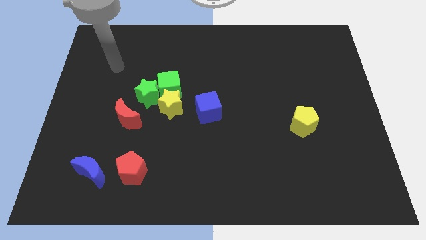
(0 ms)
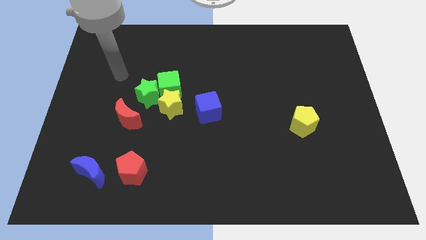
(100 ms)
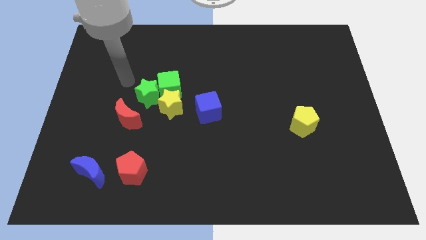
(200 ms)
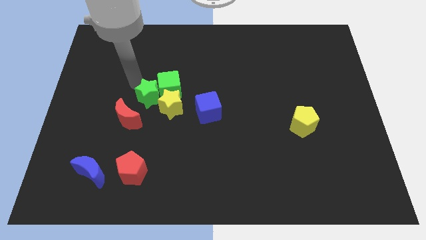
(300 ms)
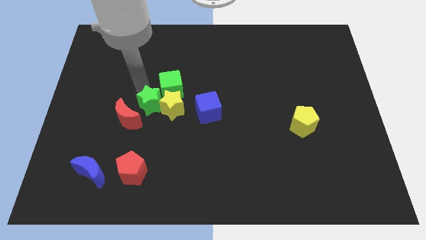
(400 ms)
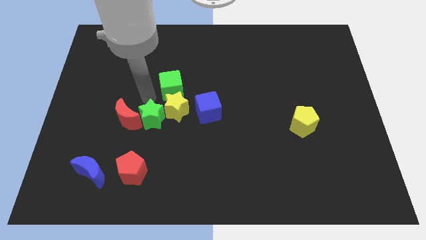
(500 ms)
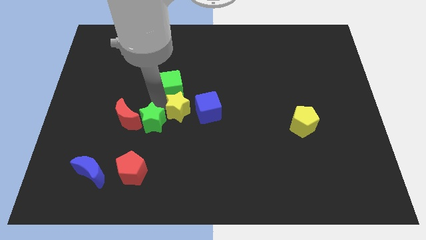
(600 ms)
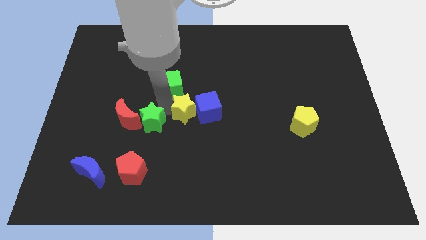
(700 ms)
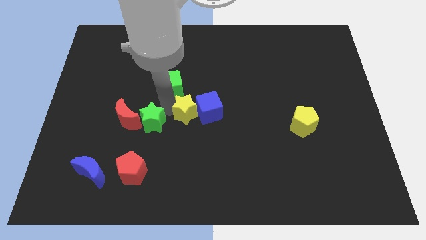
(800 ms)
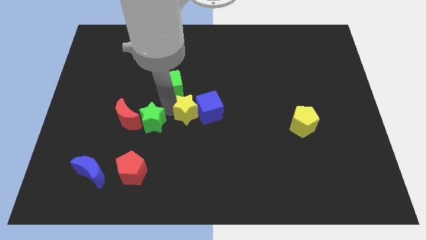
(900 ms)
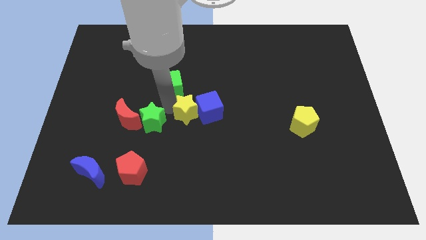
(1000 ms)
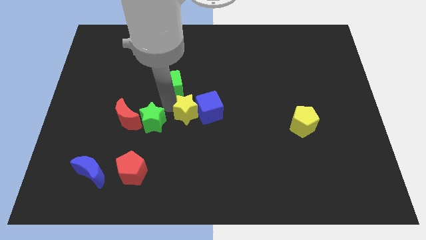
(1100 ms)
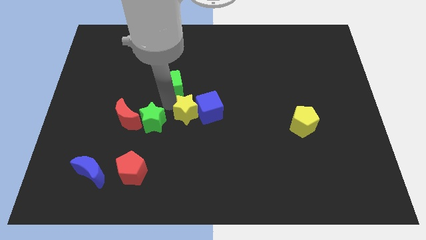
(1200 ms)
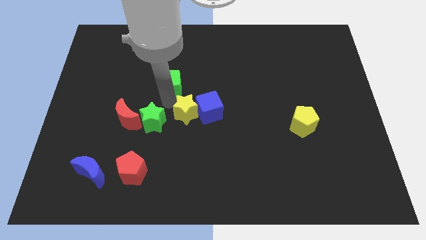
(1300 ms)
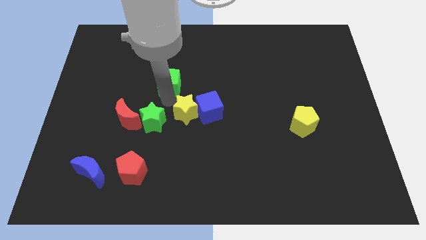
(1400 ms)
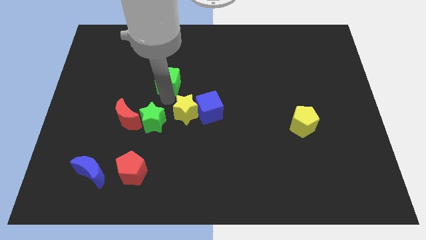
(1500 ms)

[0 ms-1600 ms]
move the green cube away from the green star and yellow star

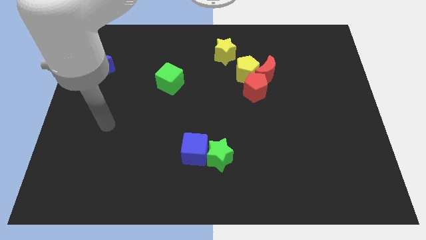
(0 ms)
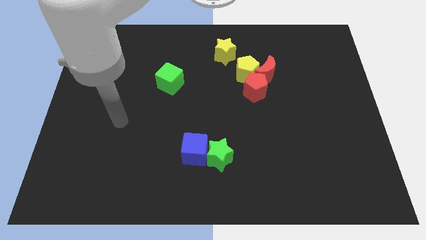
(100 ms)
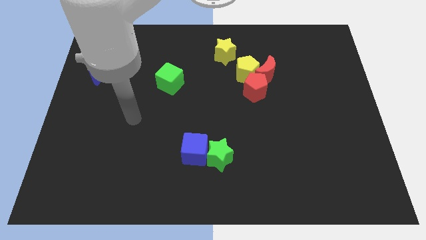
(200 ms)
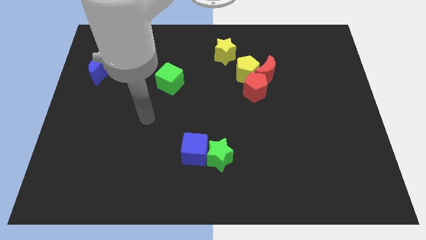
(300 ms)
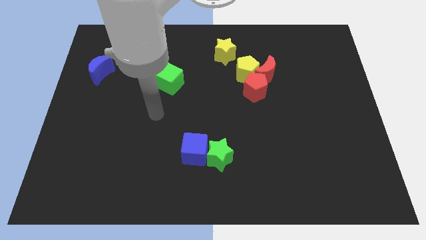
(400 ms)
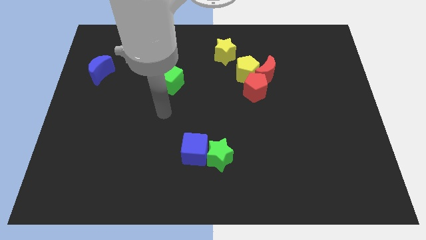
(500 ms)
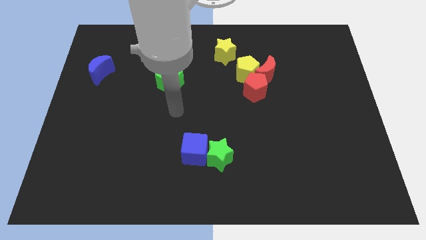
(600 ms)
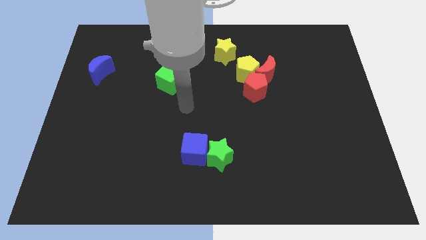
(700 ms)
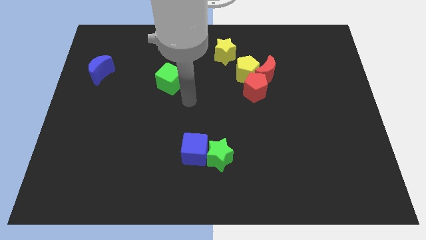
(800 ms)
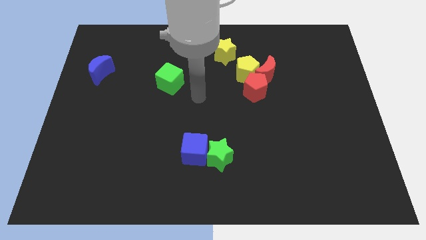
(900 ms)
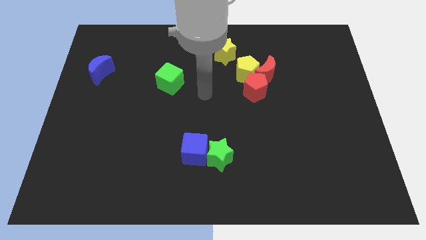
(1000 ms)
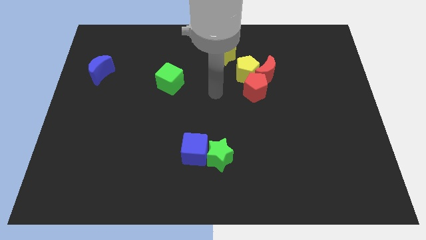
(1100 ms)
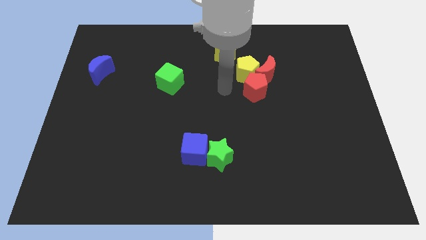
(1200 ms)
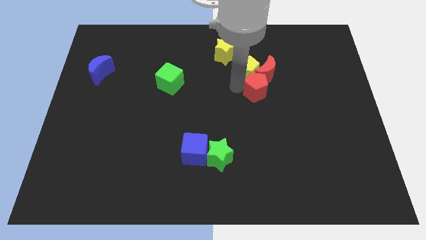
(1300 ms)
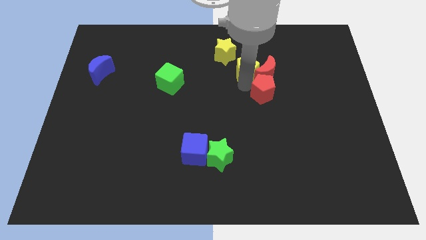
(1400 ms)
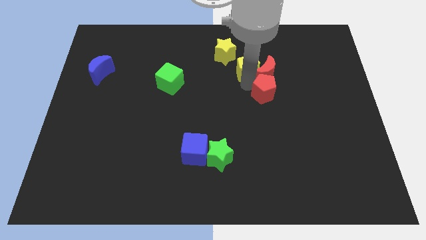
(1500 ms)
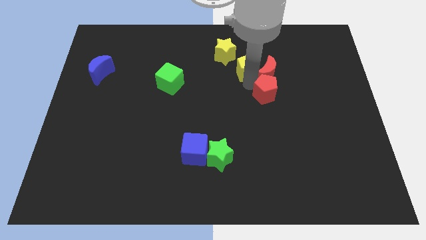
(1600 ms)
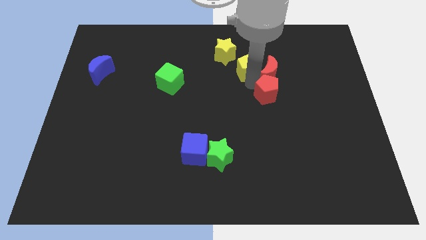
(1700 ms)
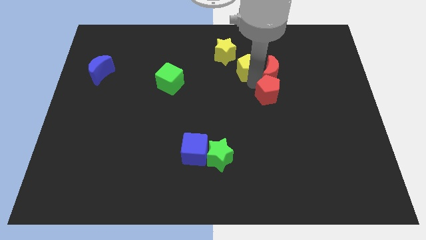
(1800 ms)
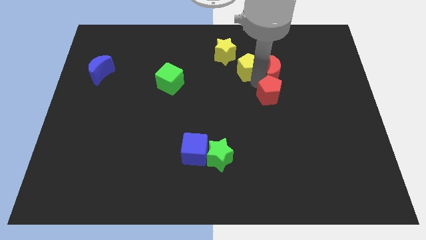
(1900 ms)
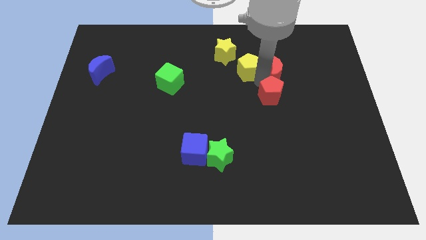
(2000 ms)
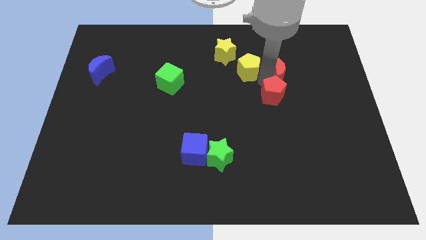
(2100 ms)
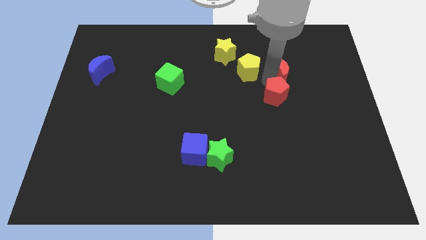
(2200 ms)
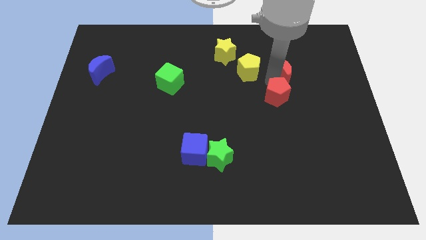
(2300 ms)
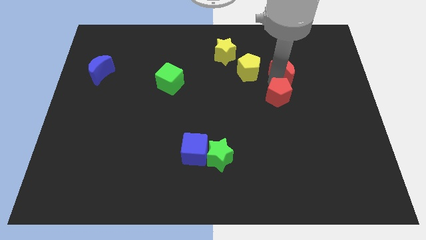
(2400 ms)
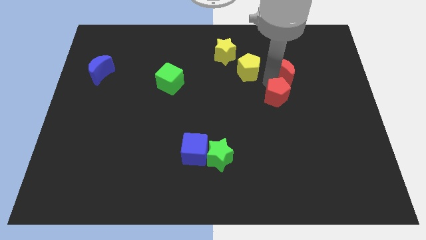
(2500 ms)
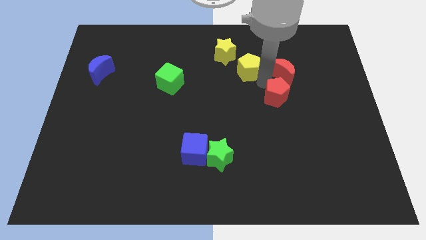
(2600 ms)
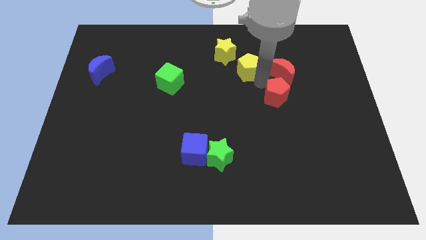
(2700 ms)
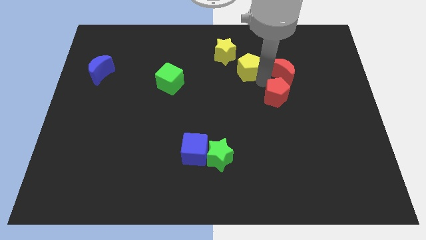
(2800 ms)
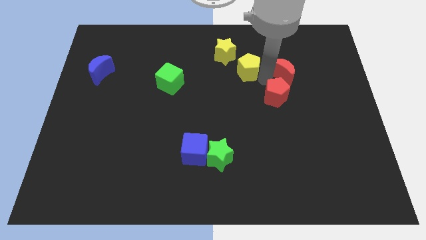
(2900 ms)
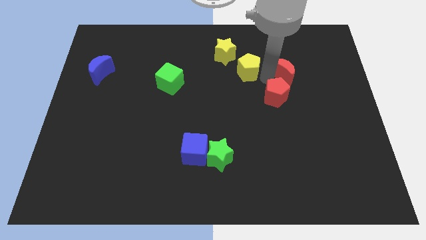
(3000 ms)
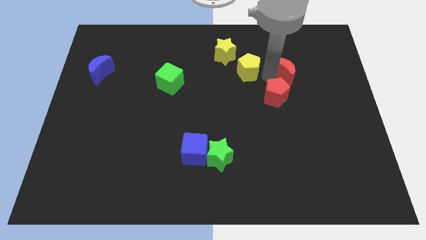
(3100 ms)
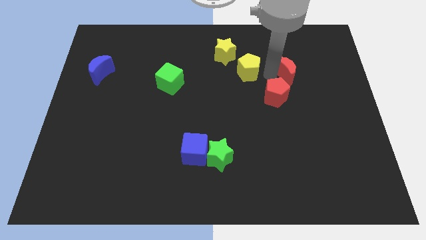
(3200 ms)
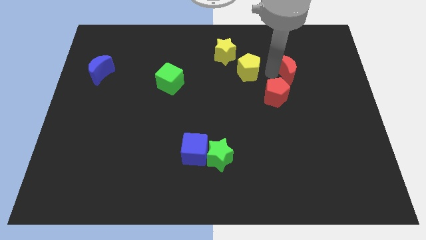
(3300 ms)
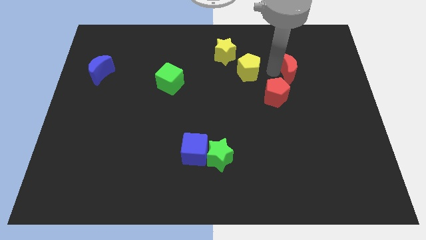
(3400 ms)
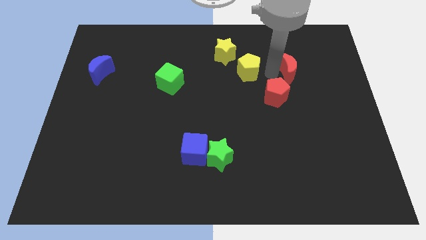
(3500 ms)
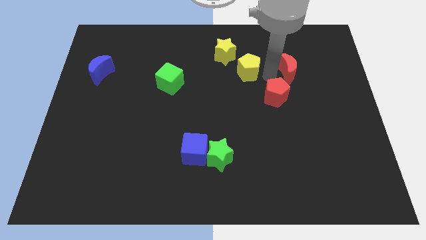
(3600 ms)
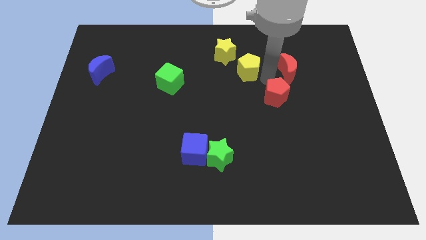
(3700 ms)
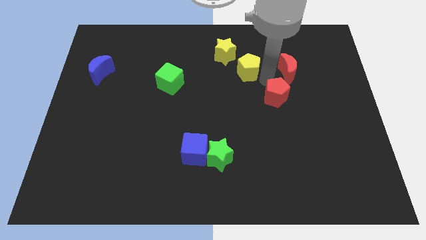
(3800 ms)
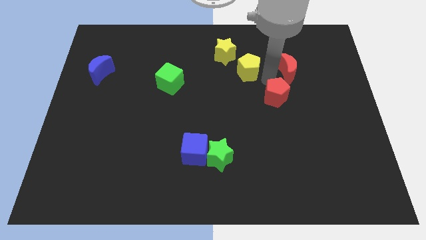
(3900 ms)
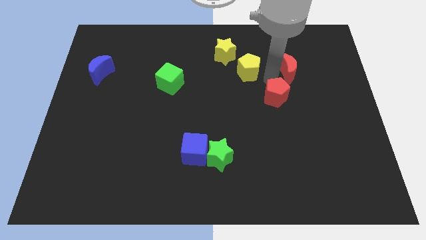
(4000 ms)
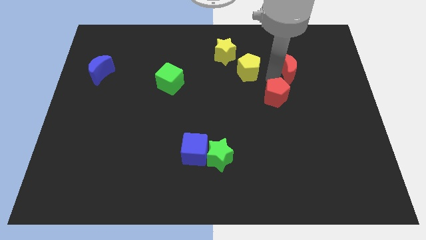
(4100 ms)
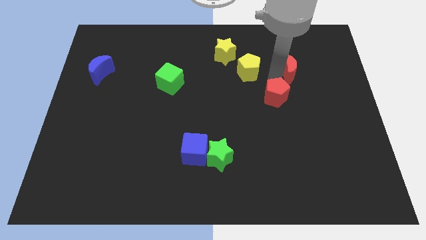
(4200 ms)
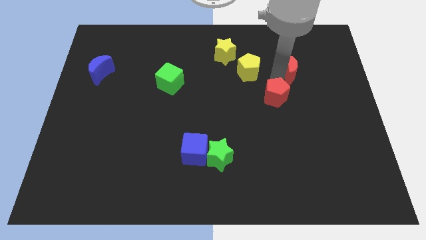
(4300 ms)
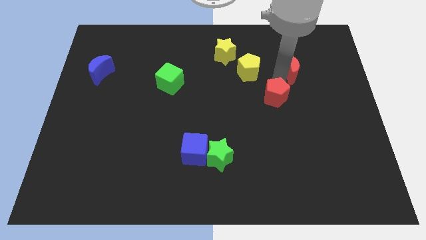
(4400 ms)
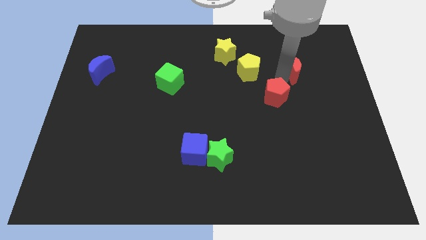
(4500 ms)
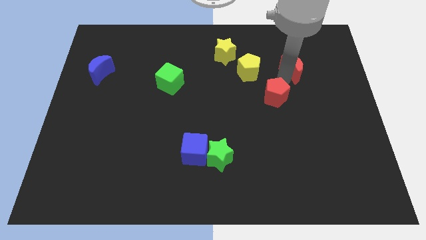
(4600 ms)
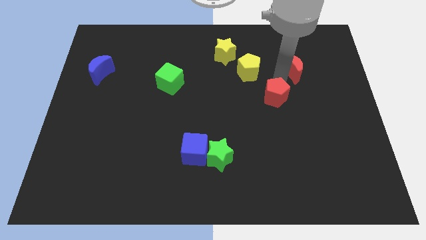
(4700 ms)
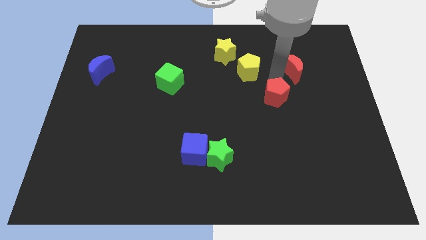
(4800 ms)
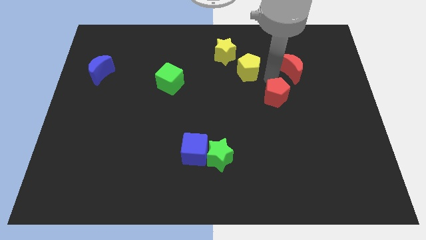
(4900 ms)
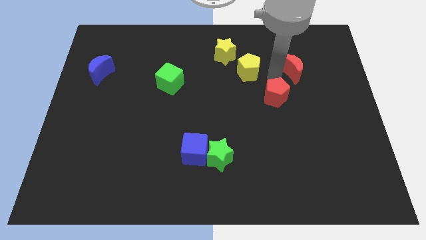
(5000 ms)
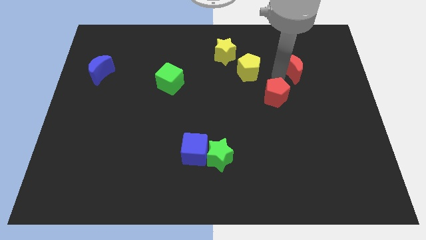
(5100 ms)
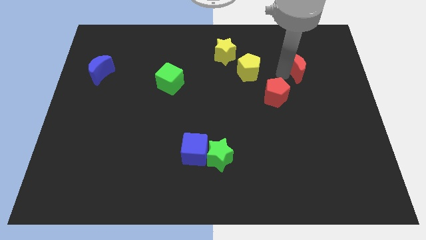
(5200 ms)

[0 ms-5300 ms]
separate the red moon from the yellow pentagon and red pentagon

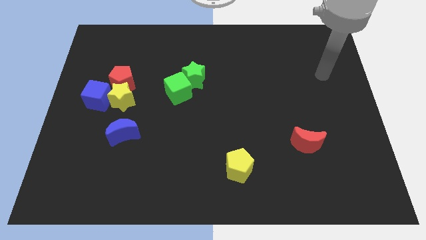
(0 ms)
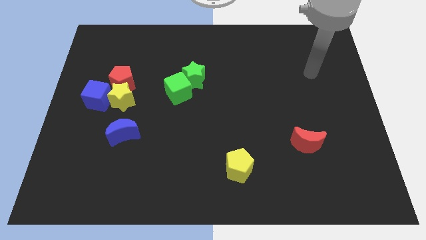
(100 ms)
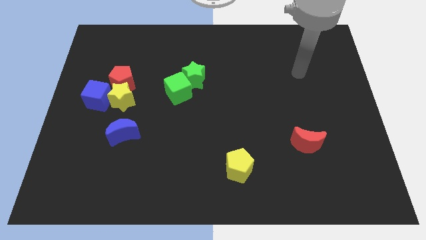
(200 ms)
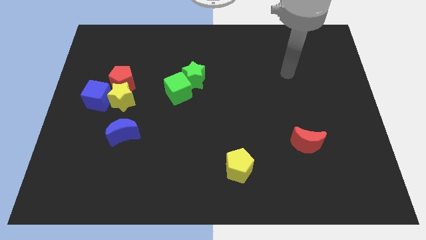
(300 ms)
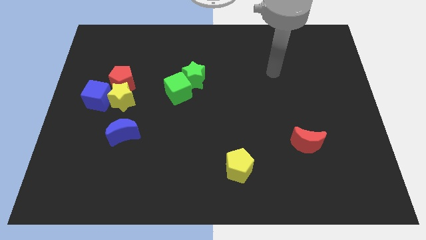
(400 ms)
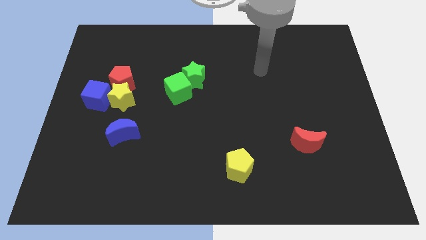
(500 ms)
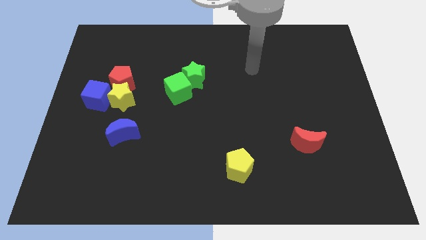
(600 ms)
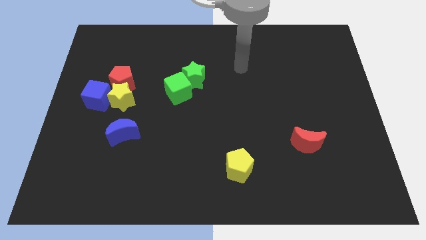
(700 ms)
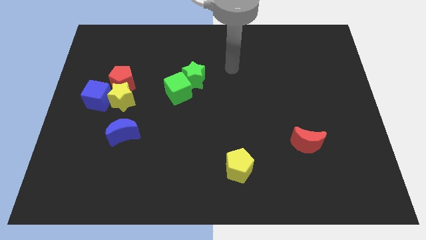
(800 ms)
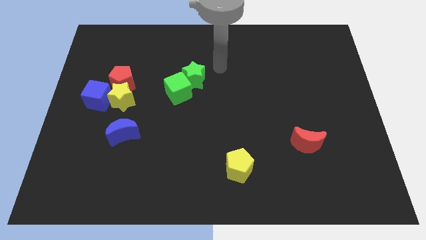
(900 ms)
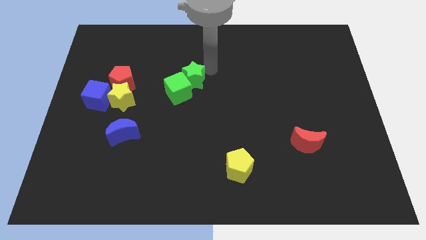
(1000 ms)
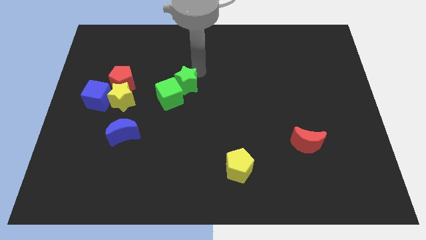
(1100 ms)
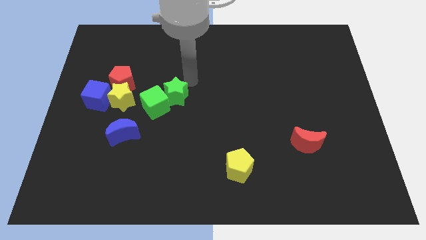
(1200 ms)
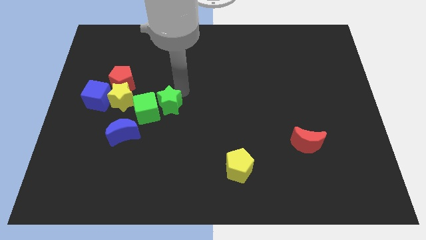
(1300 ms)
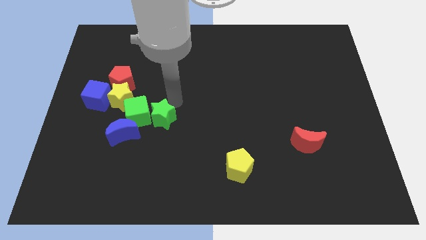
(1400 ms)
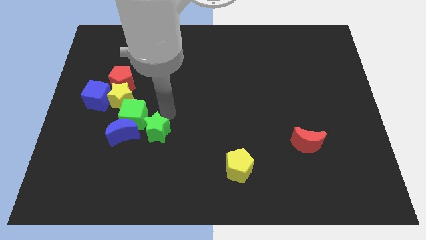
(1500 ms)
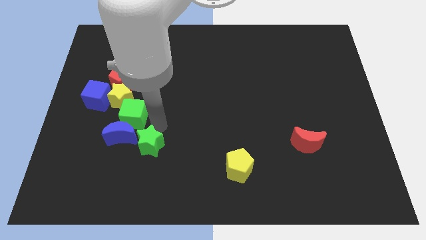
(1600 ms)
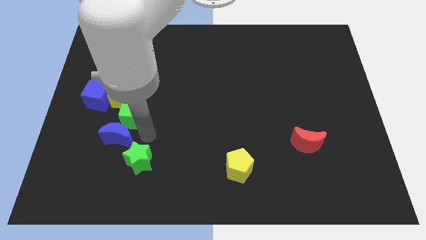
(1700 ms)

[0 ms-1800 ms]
pull the green cube apart from the green star

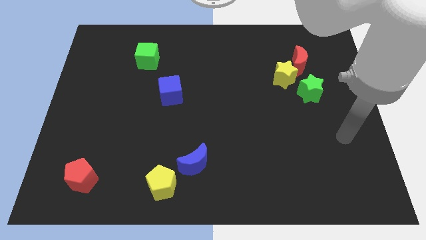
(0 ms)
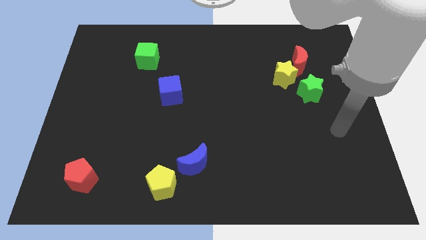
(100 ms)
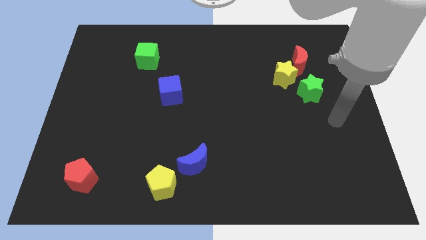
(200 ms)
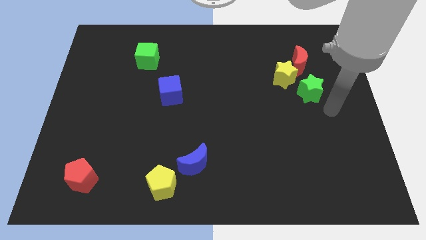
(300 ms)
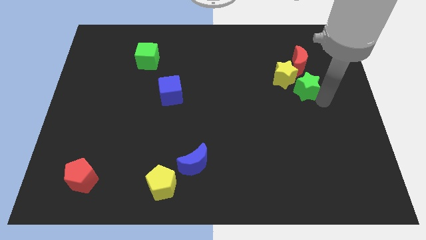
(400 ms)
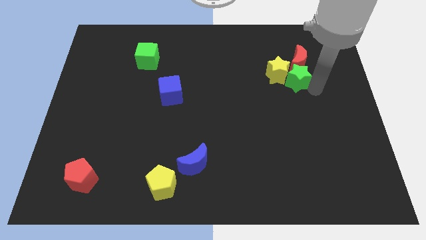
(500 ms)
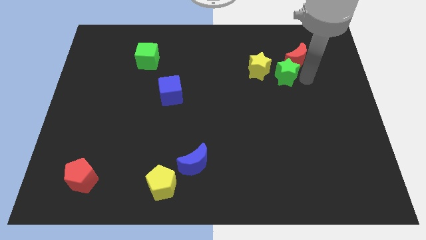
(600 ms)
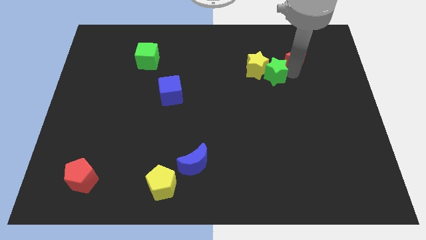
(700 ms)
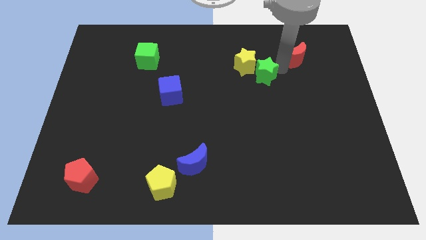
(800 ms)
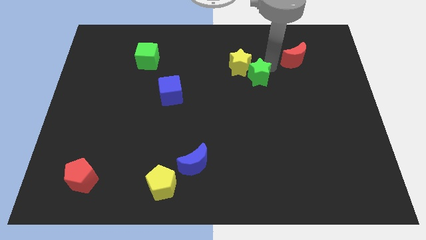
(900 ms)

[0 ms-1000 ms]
pull the yellow star apart from the red moon and green star
